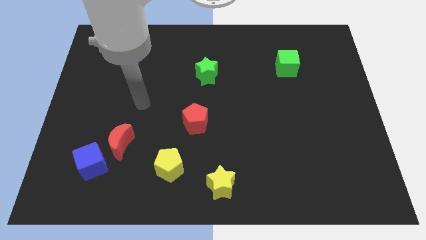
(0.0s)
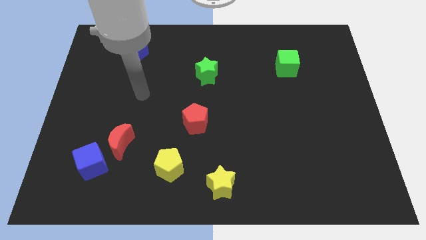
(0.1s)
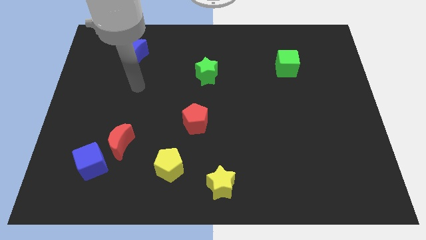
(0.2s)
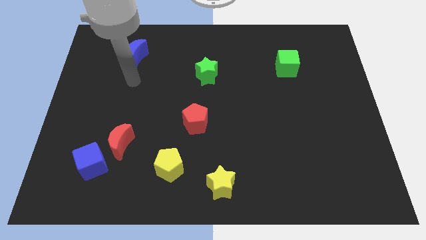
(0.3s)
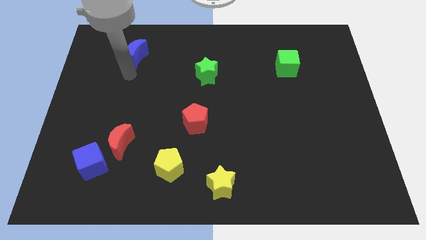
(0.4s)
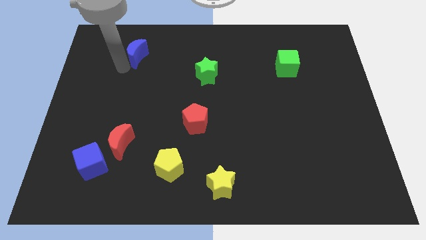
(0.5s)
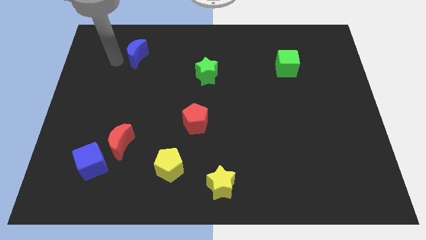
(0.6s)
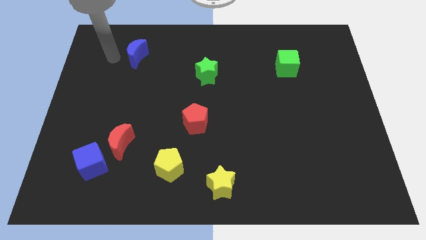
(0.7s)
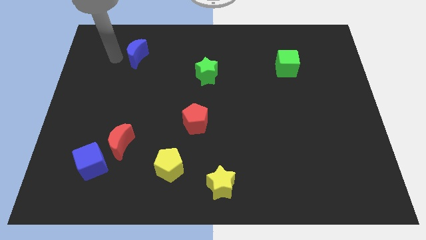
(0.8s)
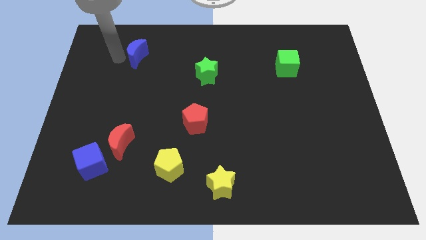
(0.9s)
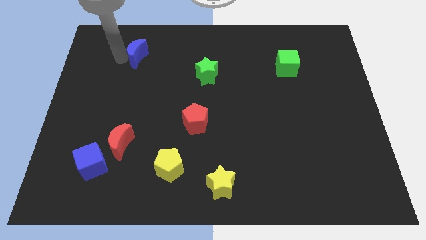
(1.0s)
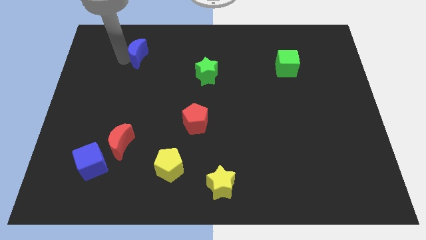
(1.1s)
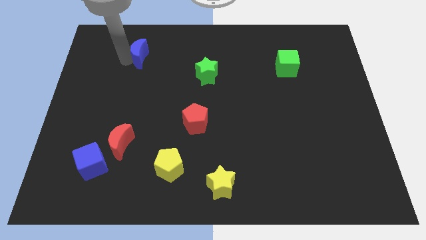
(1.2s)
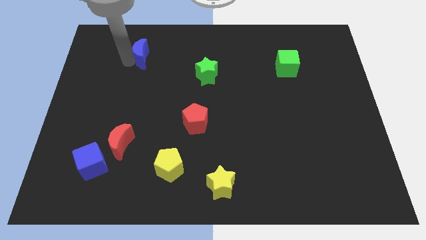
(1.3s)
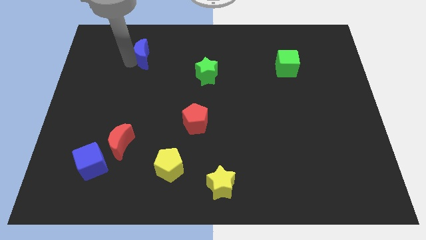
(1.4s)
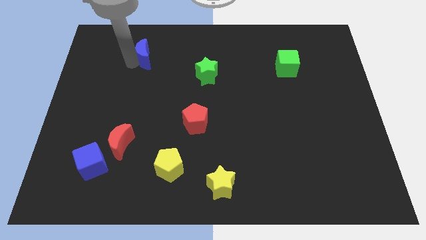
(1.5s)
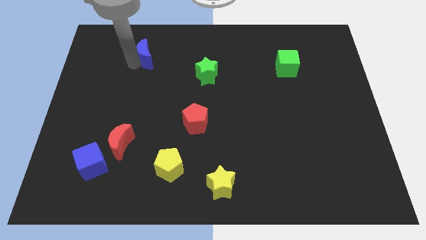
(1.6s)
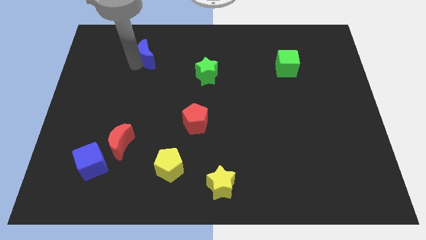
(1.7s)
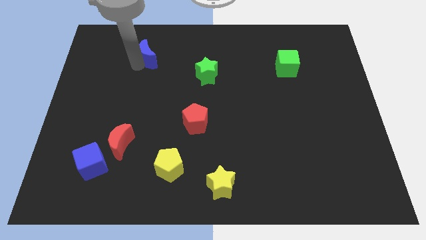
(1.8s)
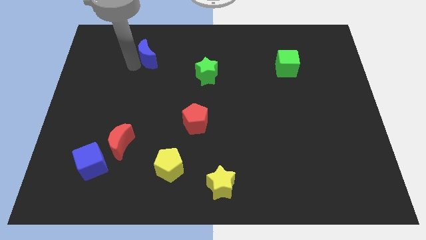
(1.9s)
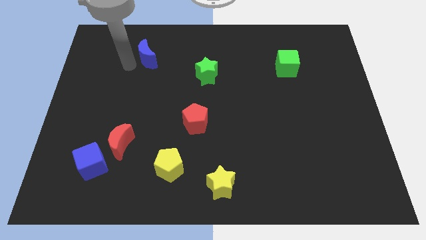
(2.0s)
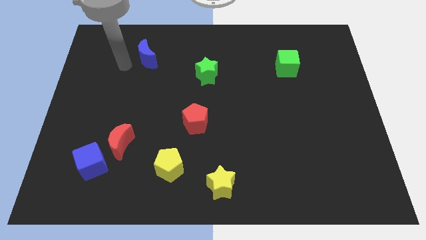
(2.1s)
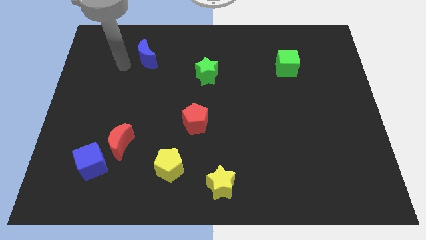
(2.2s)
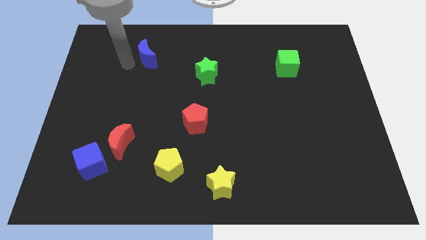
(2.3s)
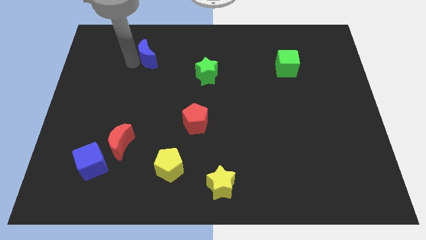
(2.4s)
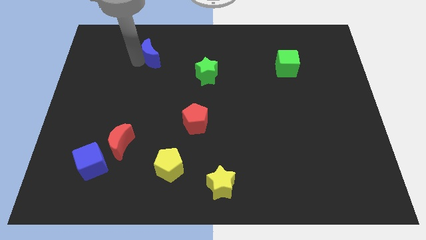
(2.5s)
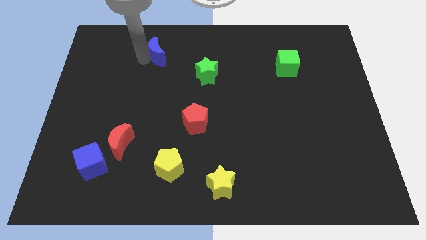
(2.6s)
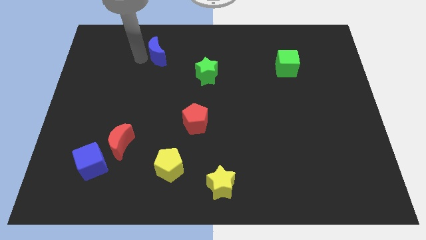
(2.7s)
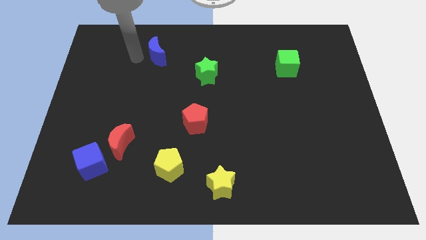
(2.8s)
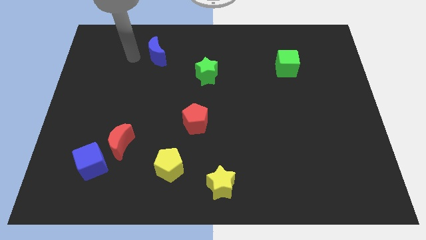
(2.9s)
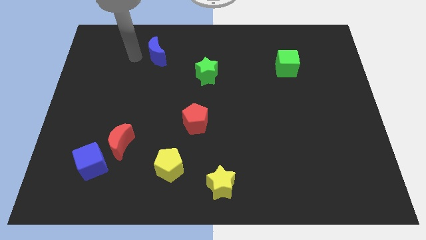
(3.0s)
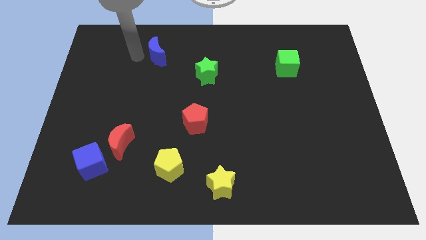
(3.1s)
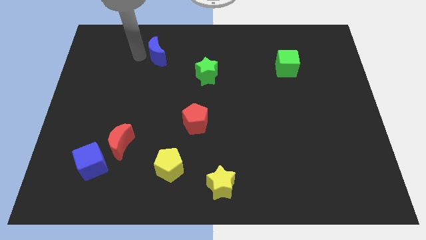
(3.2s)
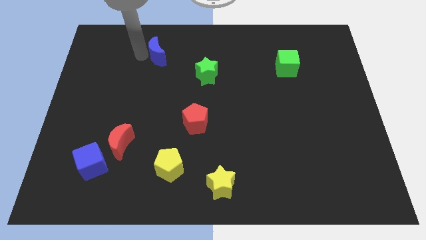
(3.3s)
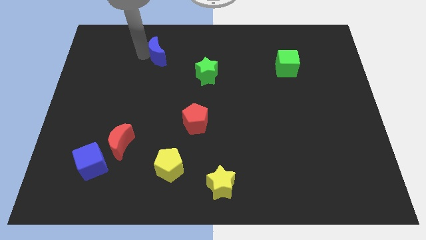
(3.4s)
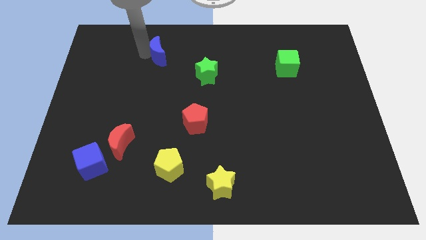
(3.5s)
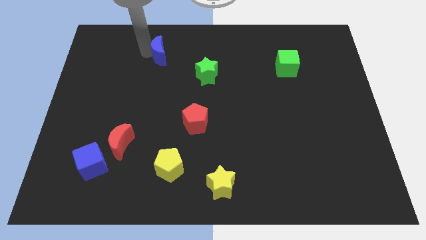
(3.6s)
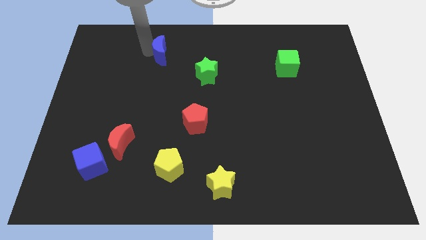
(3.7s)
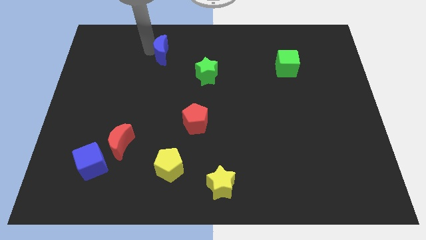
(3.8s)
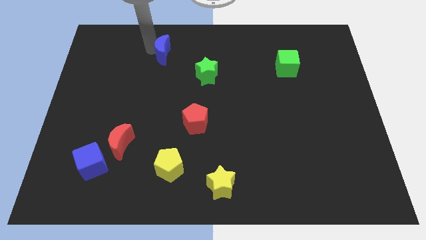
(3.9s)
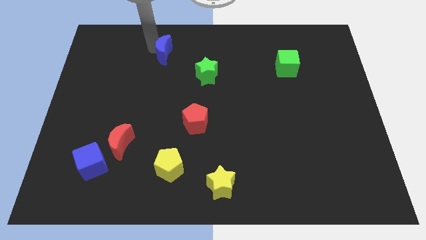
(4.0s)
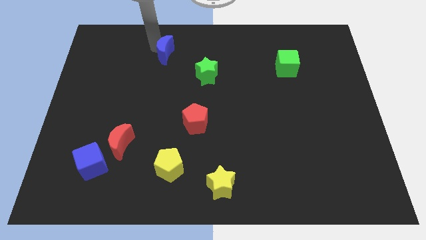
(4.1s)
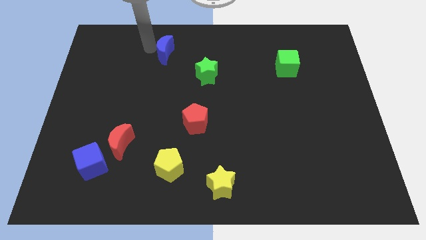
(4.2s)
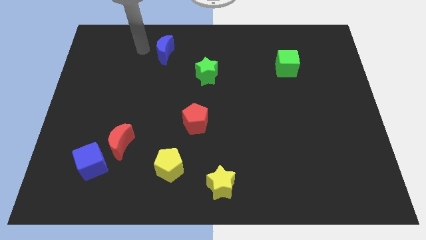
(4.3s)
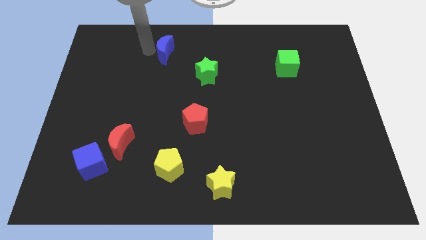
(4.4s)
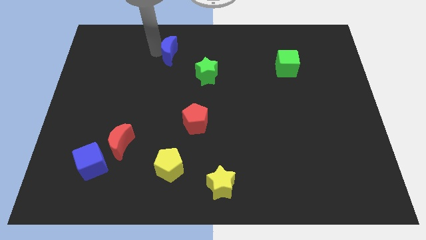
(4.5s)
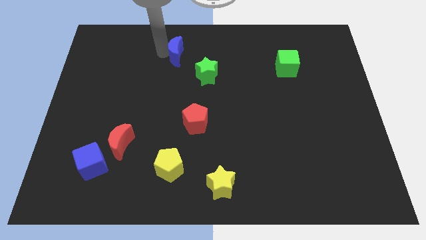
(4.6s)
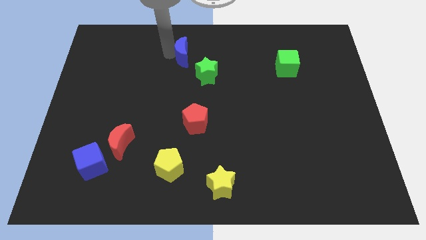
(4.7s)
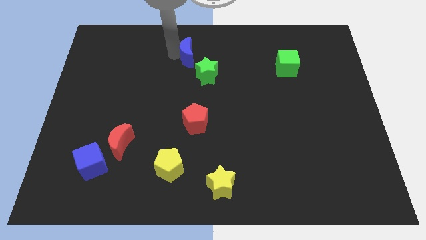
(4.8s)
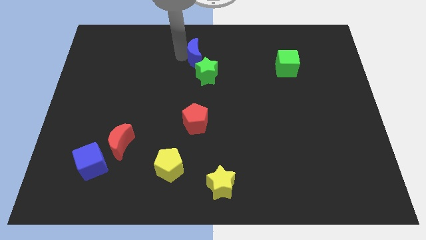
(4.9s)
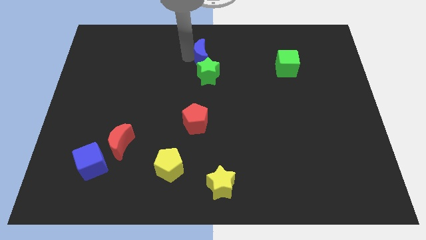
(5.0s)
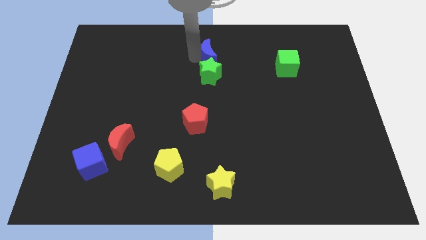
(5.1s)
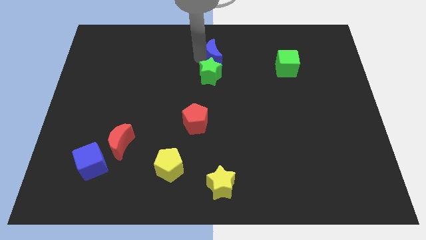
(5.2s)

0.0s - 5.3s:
slide the blue moon to the right

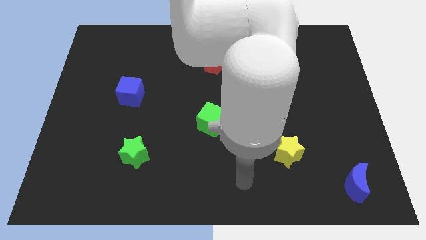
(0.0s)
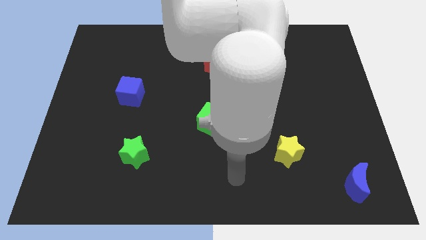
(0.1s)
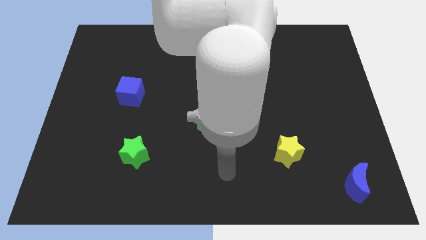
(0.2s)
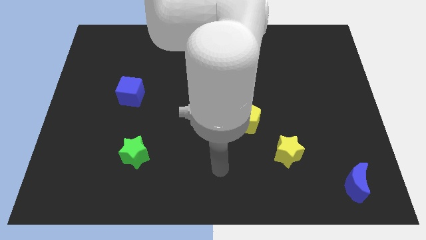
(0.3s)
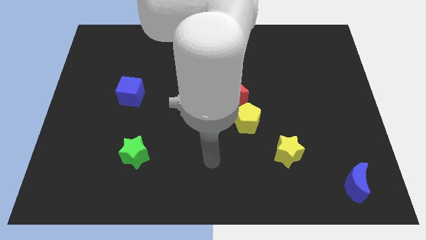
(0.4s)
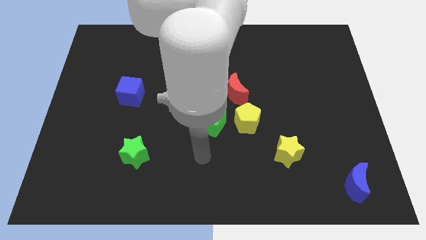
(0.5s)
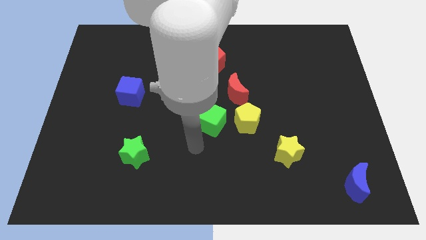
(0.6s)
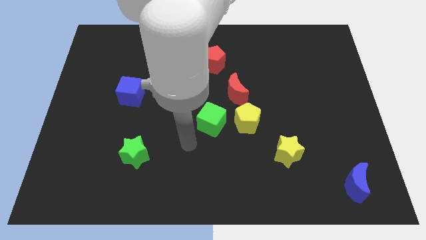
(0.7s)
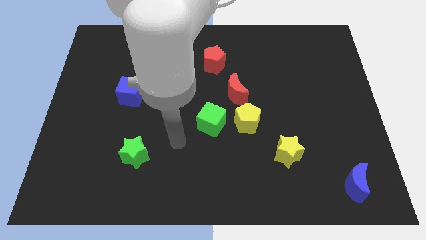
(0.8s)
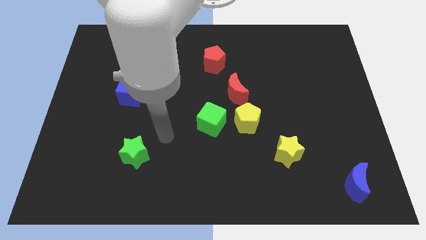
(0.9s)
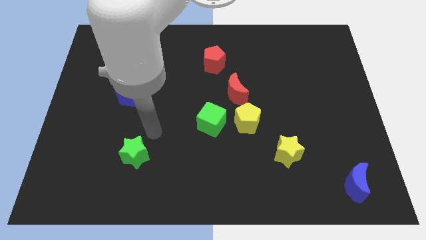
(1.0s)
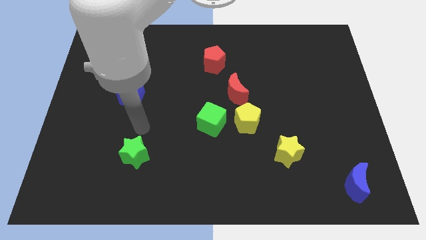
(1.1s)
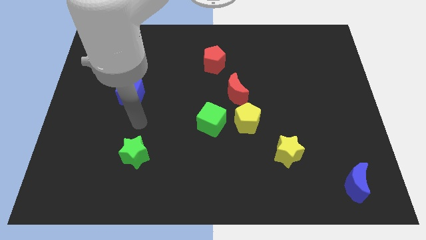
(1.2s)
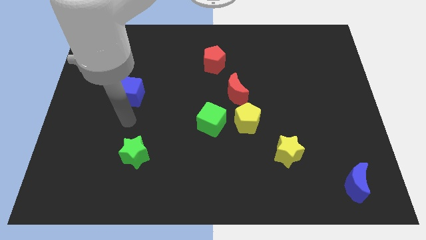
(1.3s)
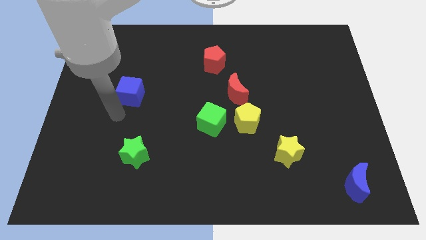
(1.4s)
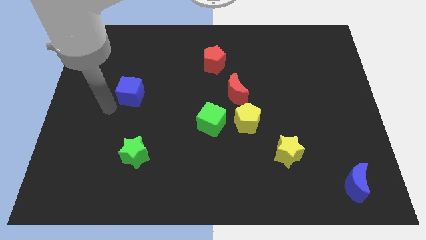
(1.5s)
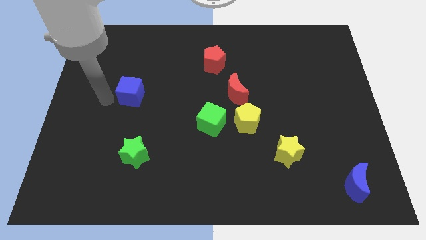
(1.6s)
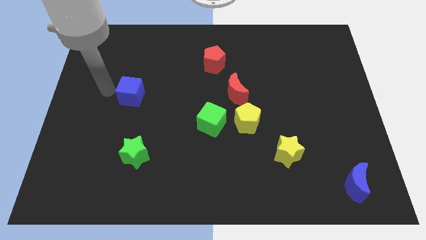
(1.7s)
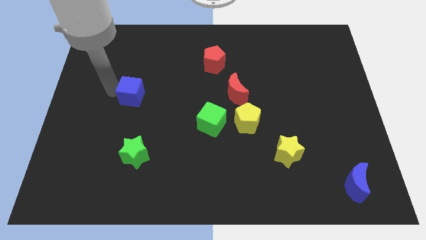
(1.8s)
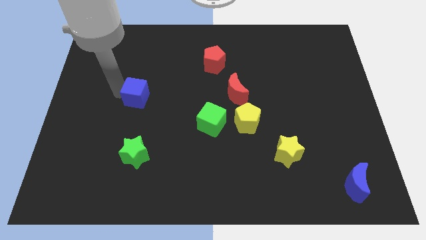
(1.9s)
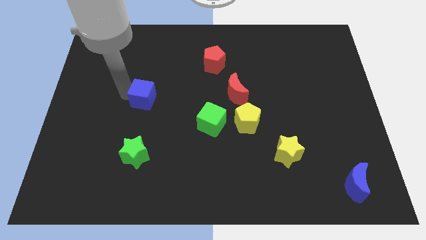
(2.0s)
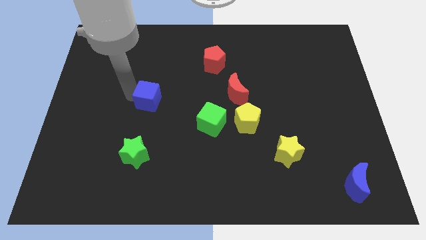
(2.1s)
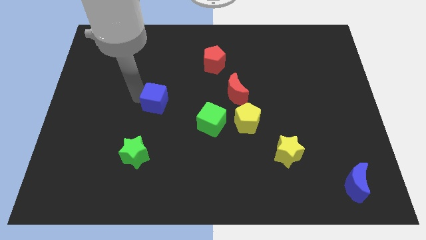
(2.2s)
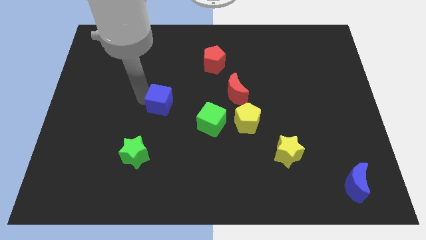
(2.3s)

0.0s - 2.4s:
push the blue cube right slightly

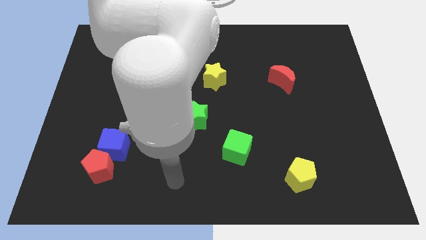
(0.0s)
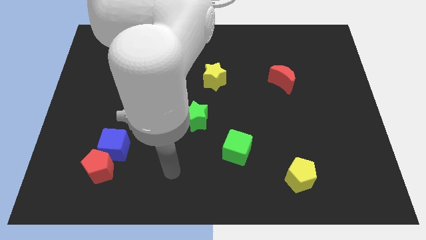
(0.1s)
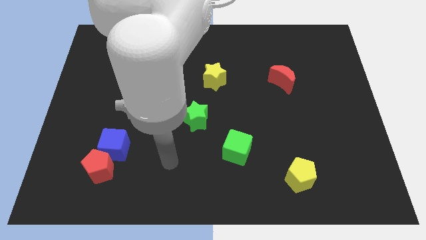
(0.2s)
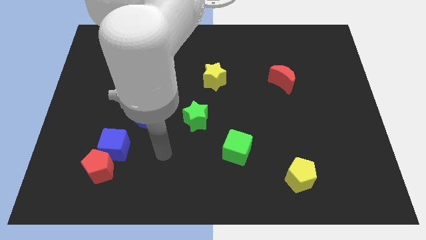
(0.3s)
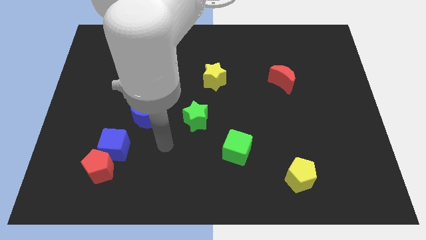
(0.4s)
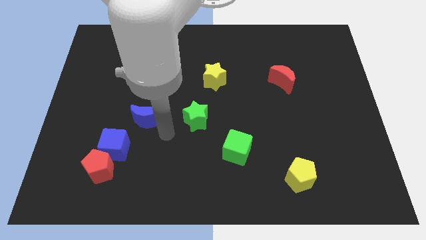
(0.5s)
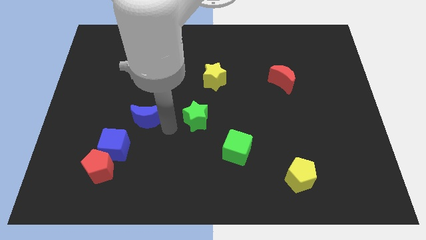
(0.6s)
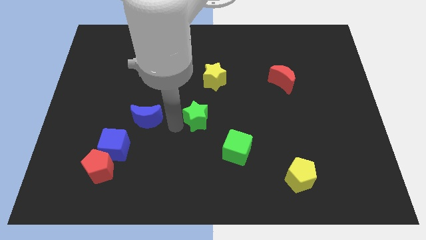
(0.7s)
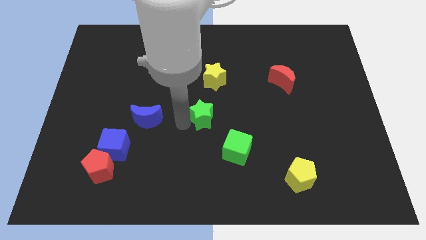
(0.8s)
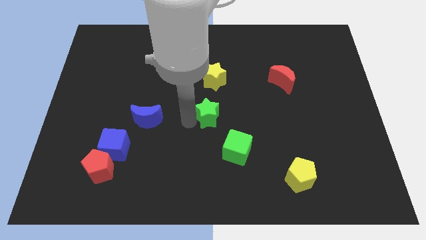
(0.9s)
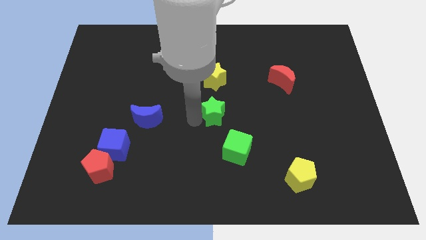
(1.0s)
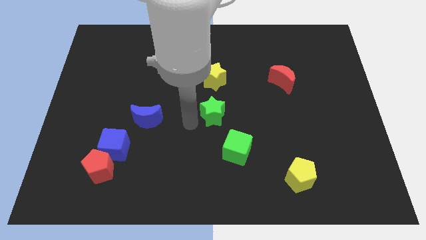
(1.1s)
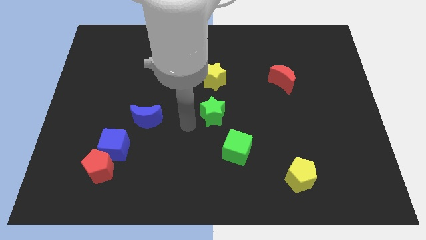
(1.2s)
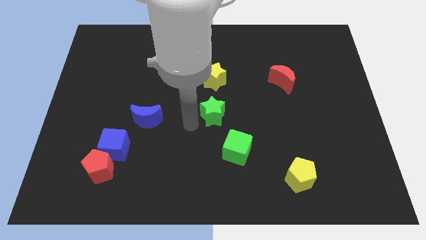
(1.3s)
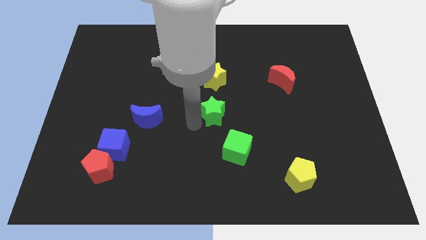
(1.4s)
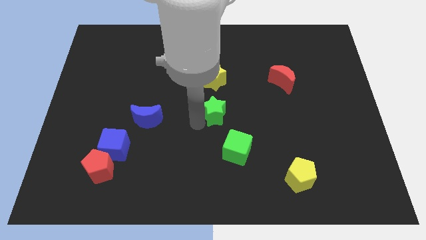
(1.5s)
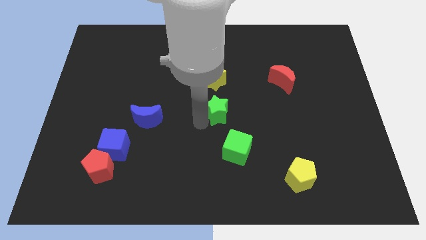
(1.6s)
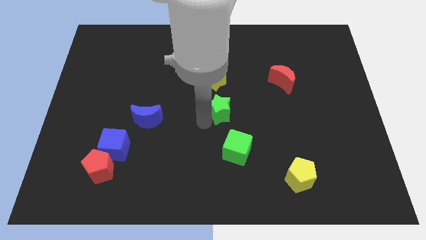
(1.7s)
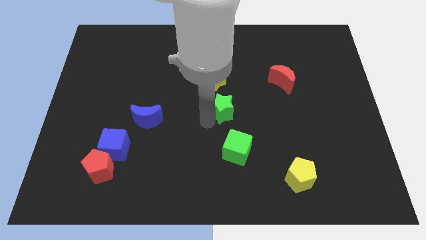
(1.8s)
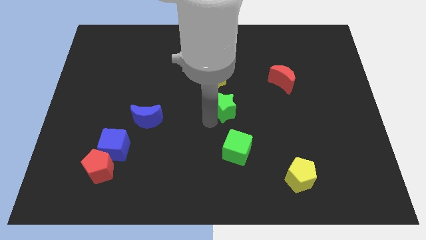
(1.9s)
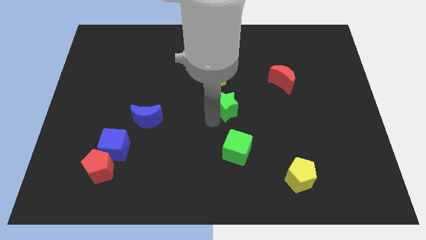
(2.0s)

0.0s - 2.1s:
push the green star up and right diagonally somewhat
